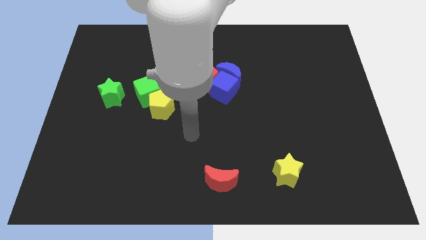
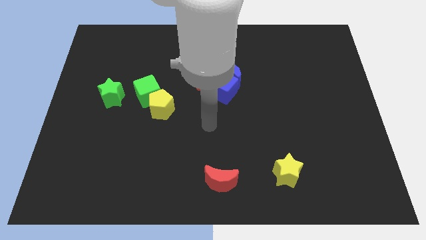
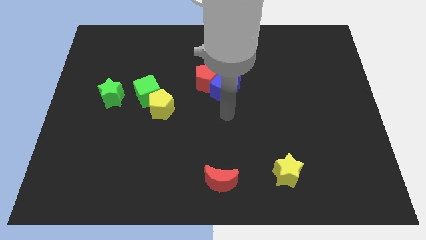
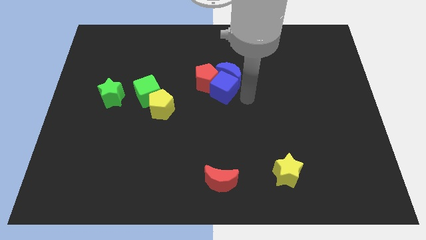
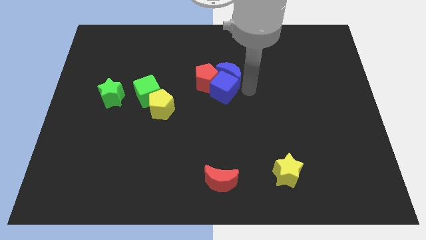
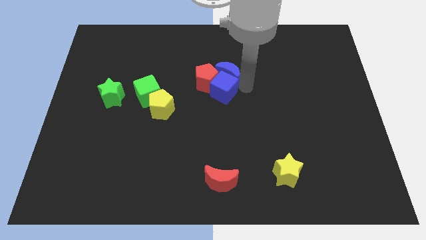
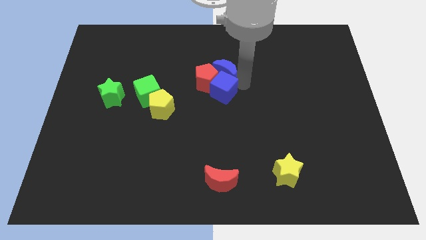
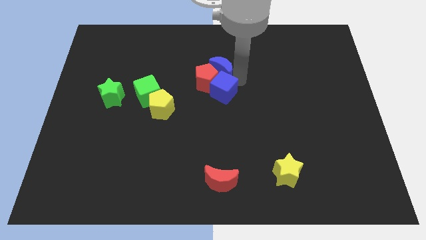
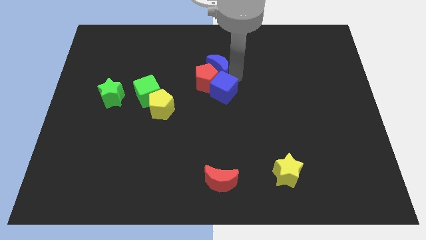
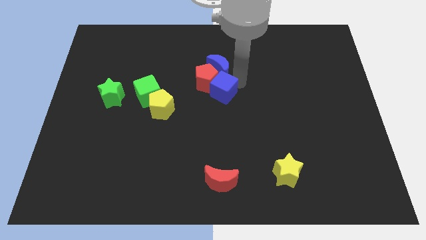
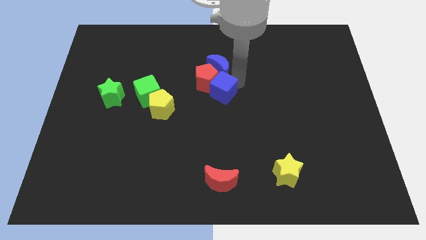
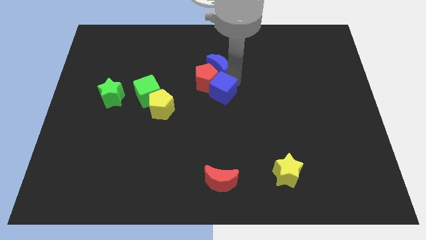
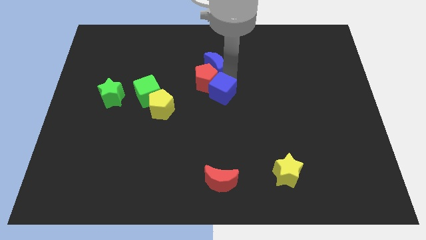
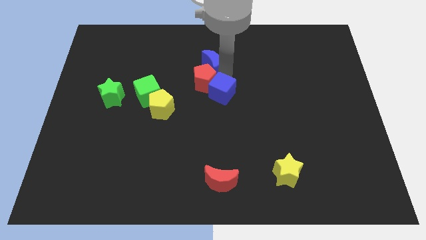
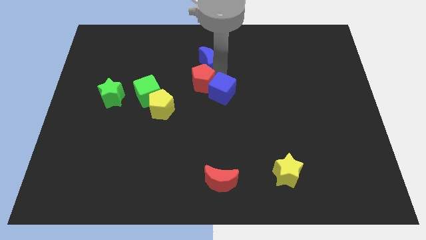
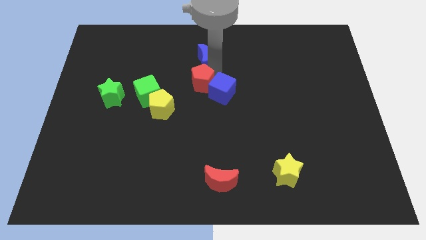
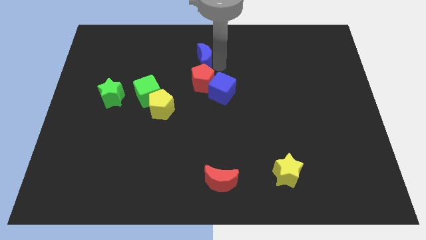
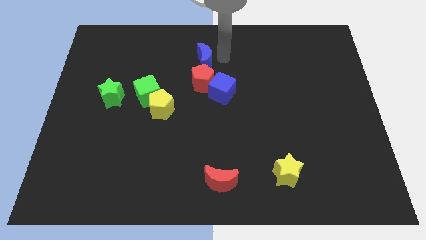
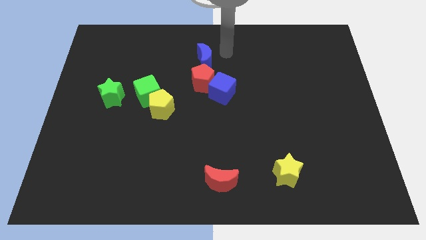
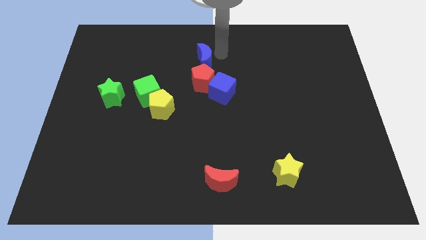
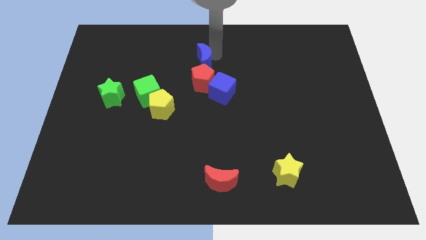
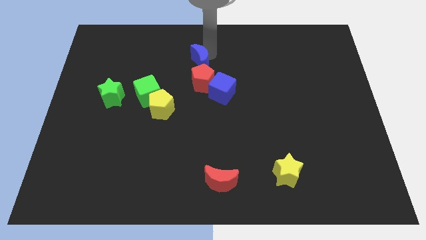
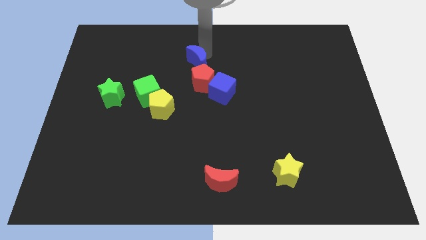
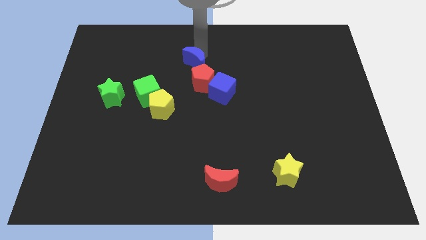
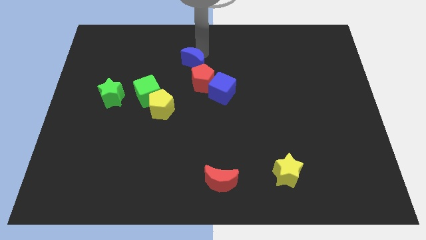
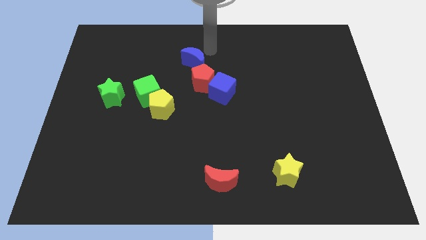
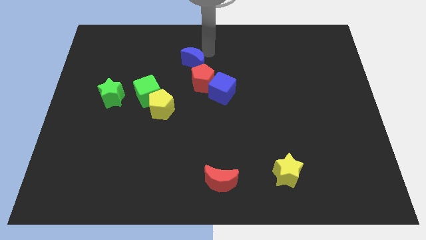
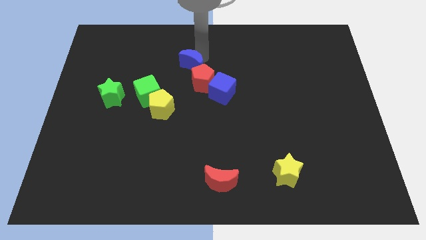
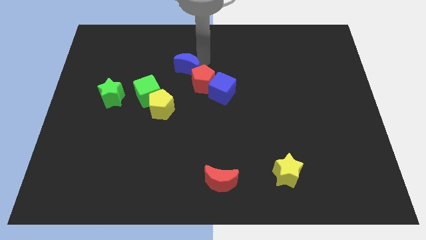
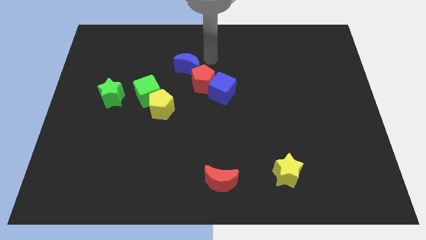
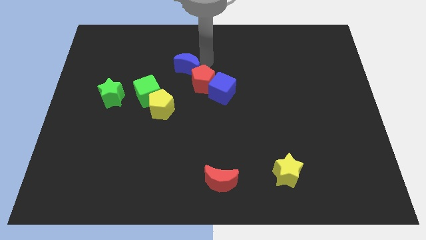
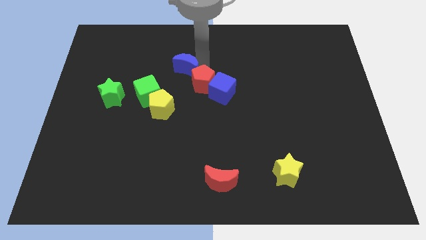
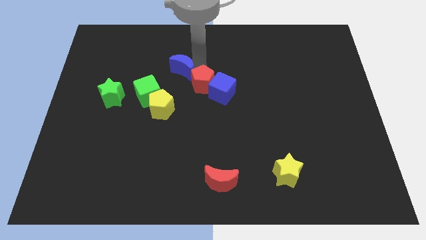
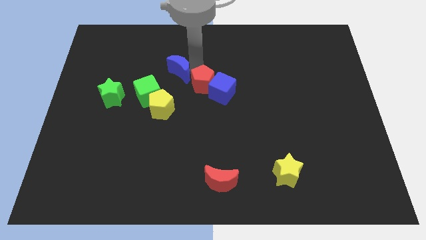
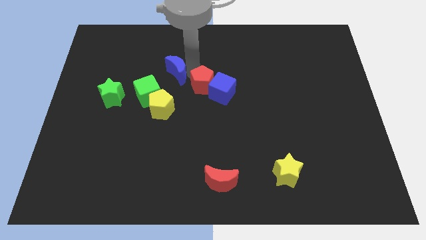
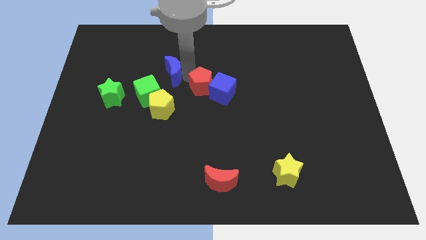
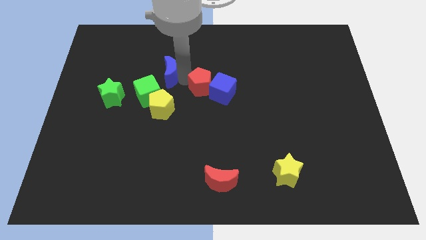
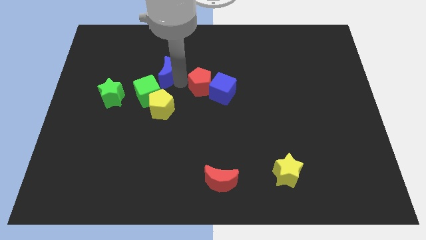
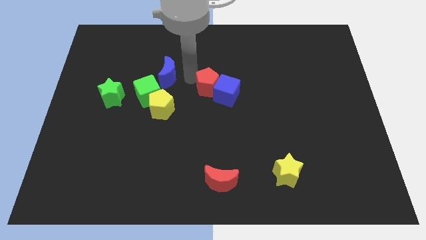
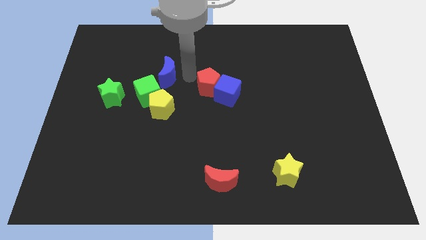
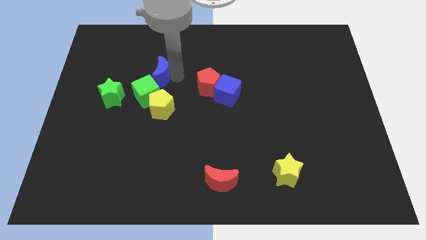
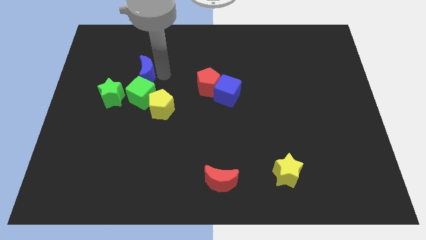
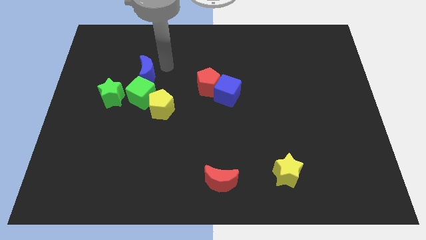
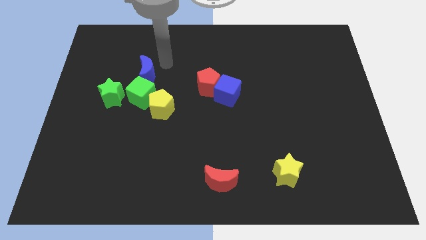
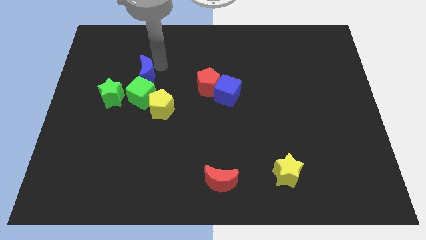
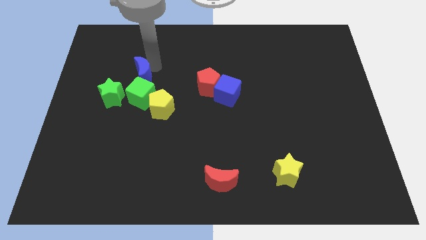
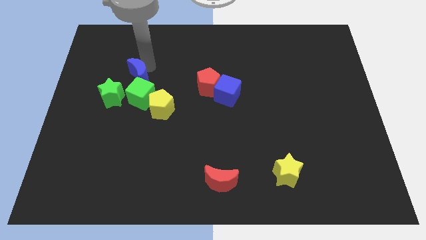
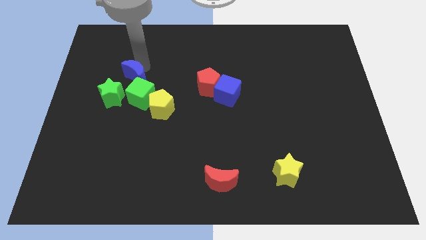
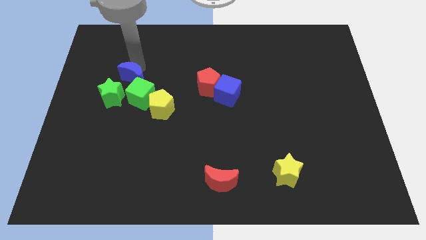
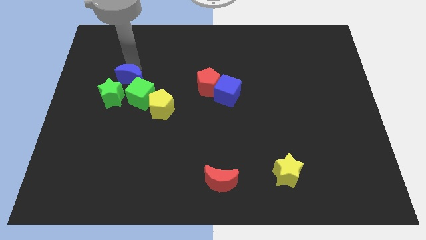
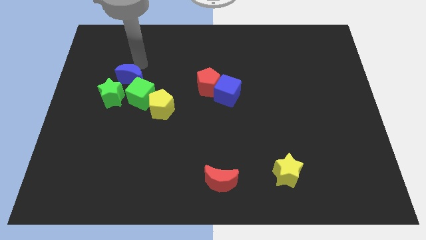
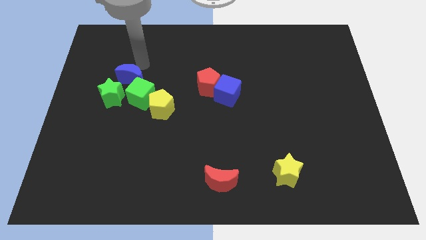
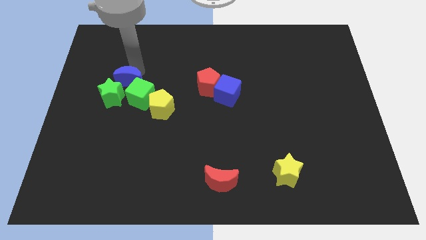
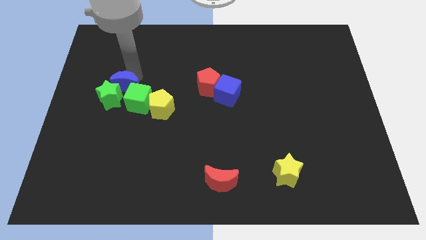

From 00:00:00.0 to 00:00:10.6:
move the blue moon towards the green star

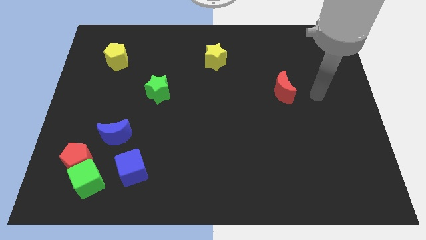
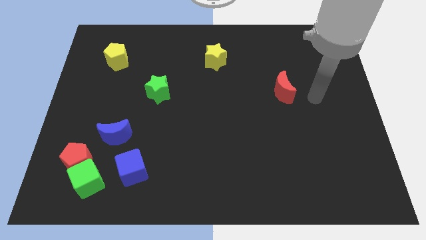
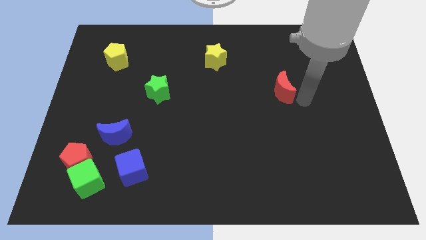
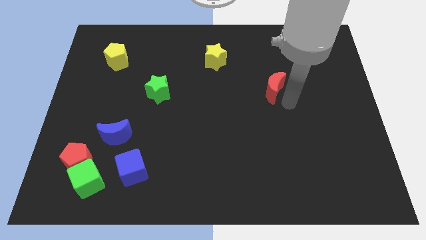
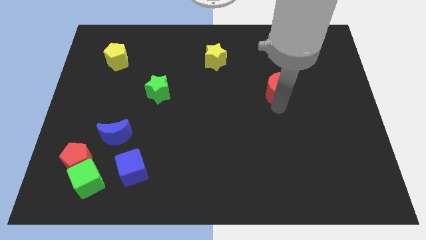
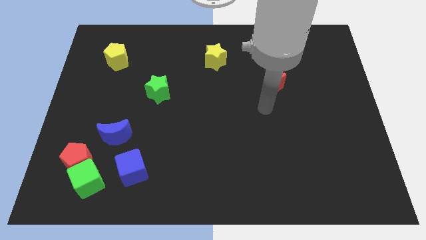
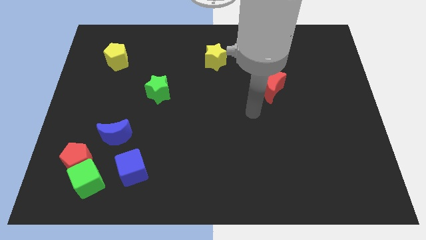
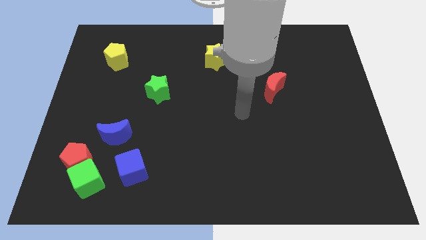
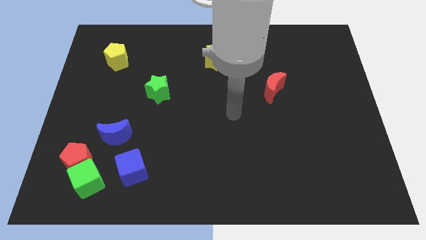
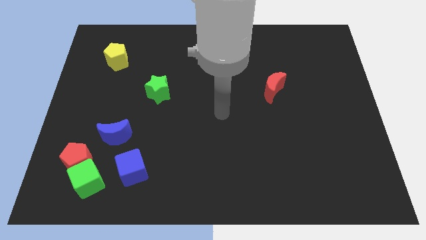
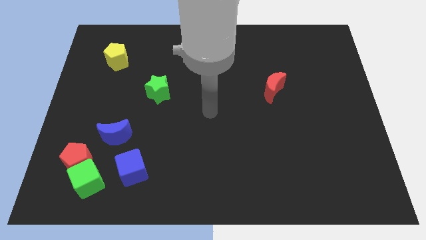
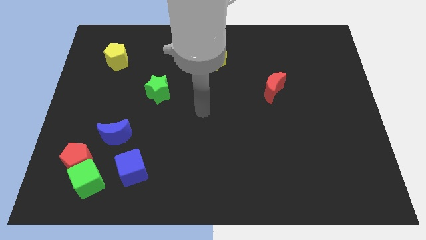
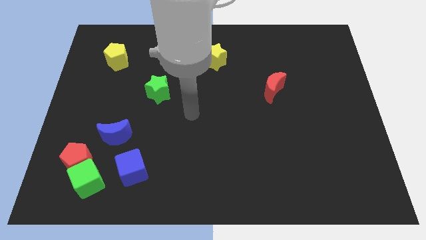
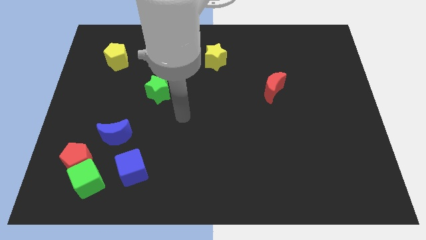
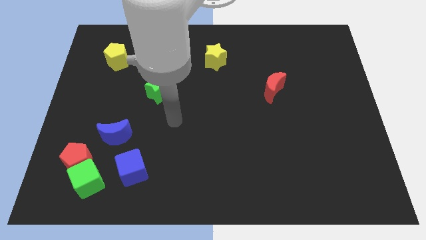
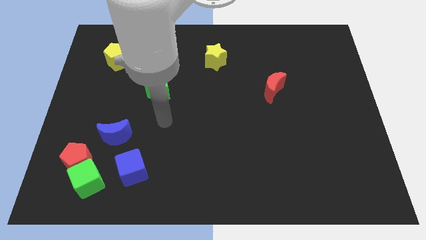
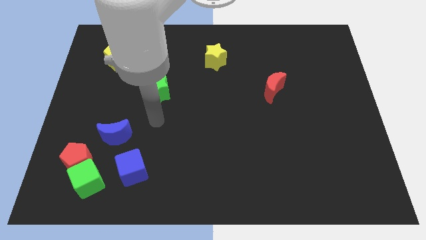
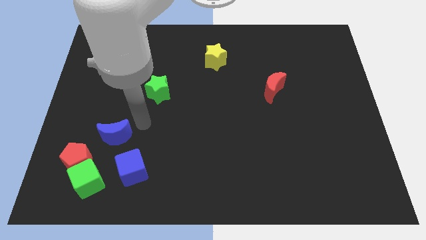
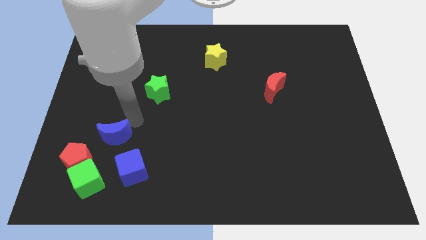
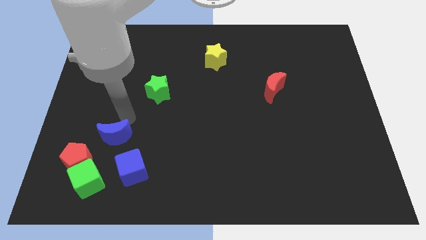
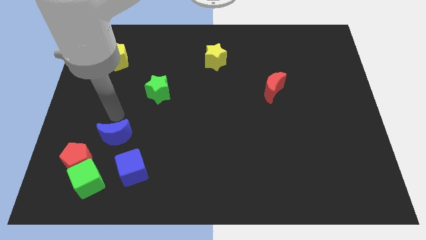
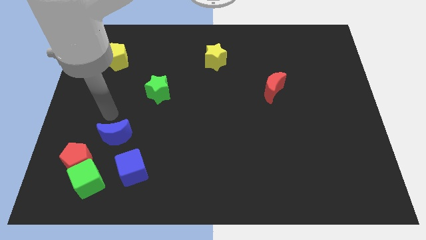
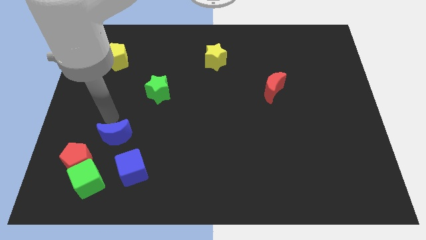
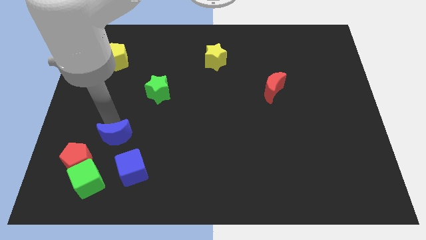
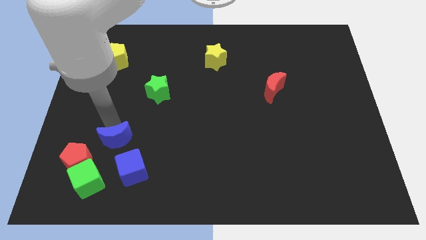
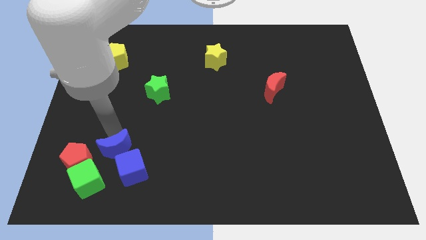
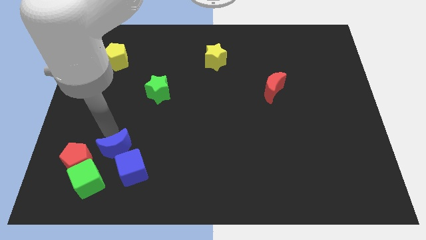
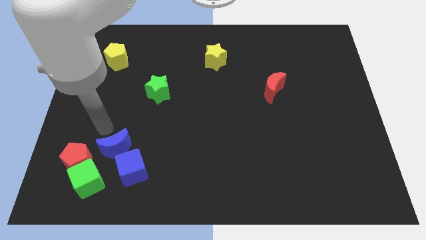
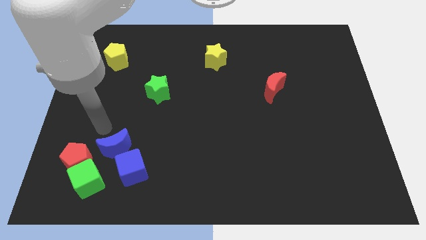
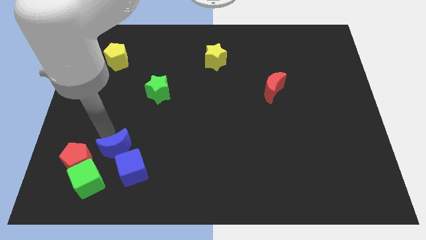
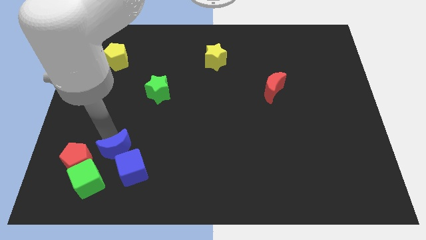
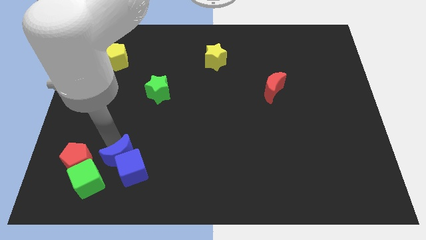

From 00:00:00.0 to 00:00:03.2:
slide the blue moon towards the blue cube
